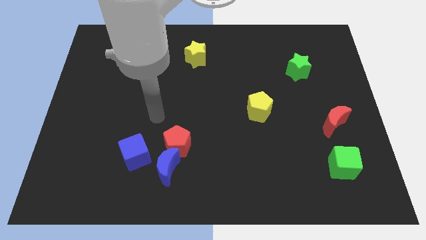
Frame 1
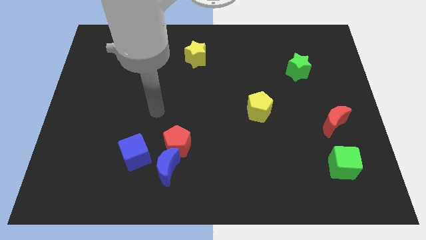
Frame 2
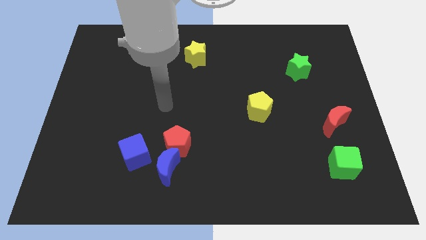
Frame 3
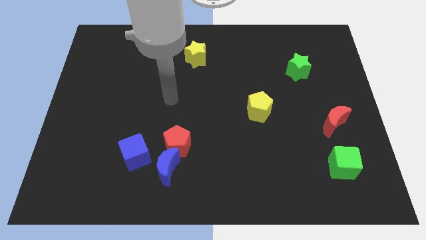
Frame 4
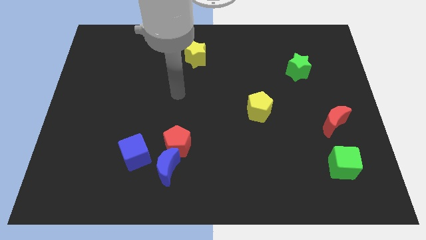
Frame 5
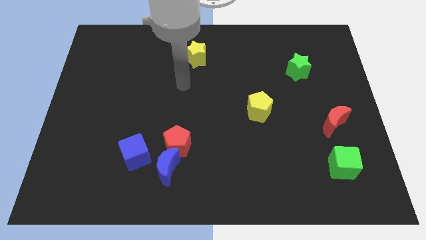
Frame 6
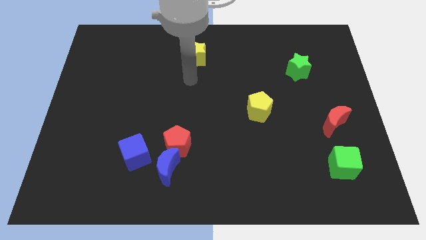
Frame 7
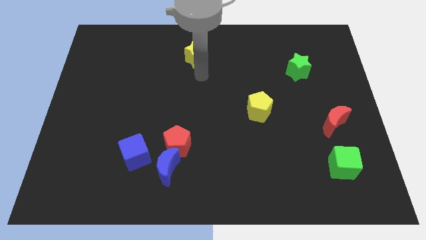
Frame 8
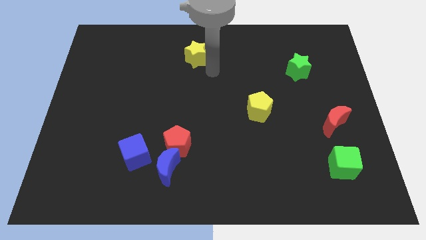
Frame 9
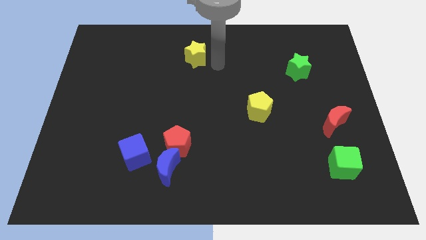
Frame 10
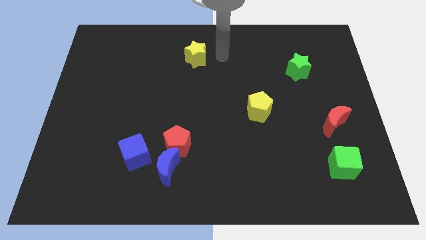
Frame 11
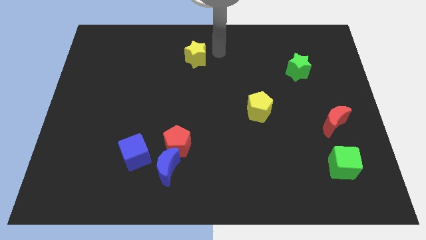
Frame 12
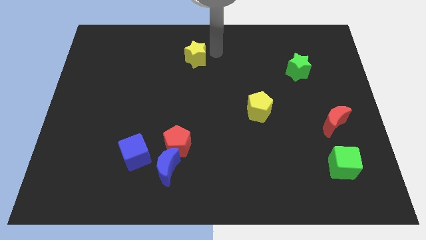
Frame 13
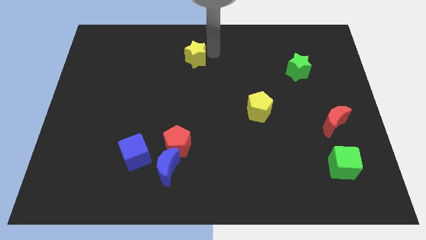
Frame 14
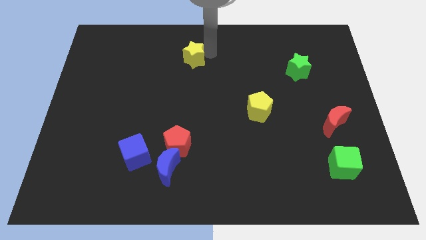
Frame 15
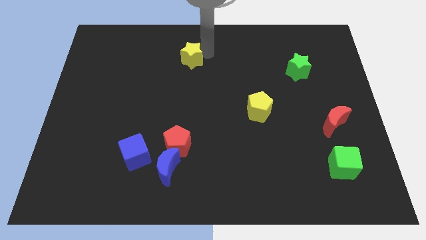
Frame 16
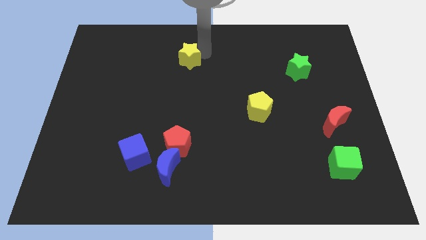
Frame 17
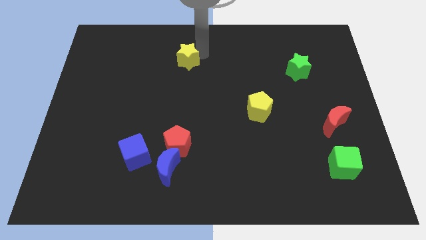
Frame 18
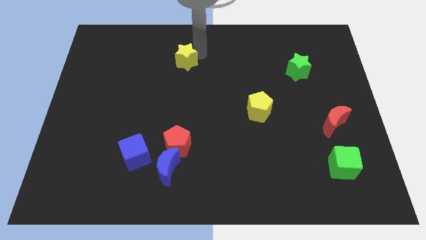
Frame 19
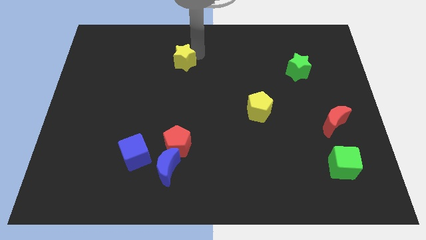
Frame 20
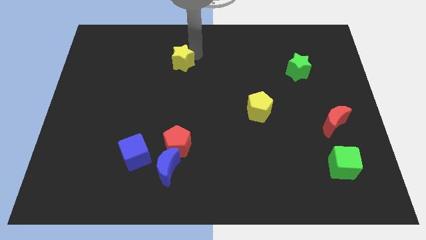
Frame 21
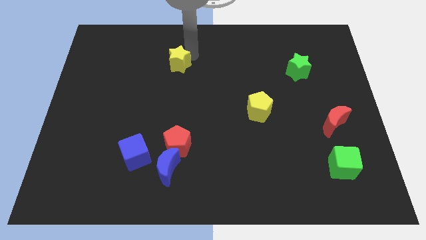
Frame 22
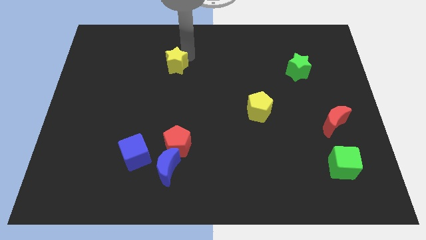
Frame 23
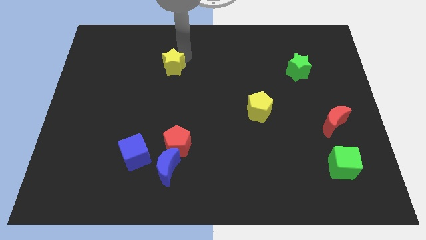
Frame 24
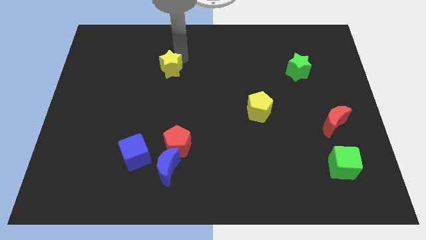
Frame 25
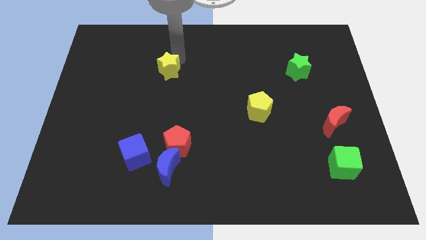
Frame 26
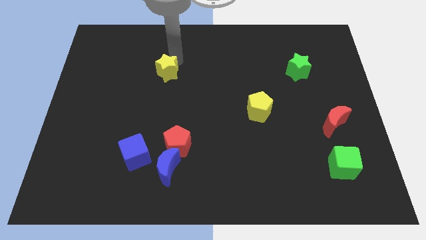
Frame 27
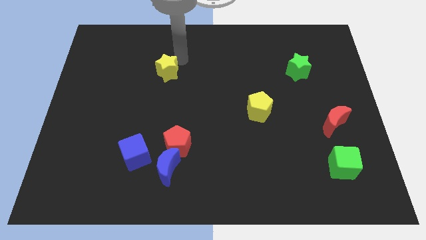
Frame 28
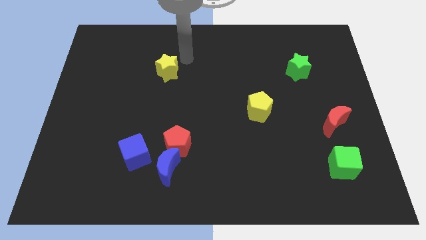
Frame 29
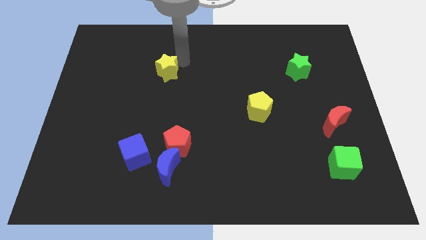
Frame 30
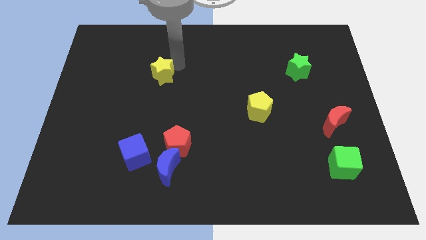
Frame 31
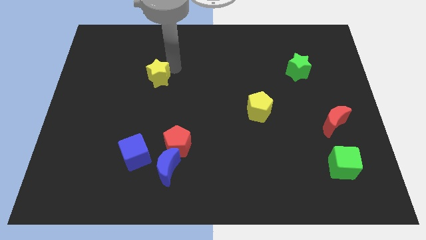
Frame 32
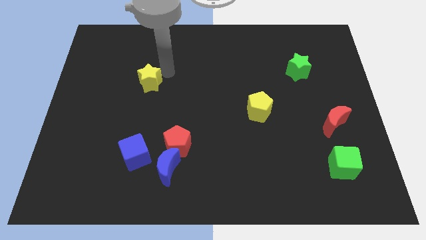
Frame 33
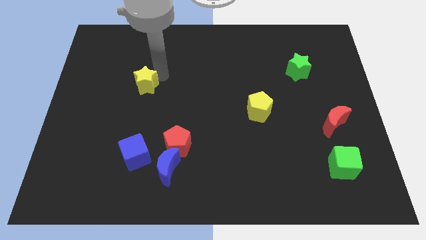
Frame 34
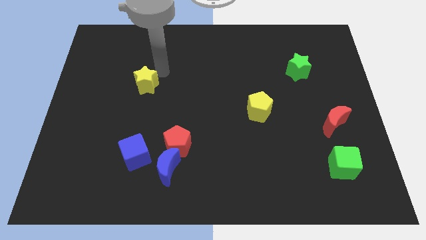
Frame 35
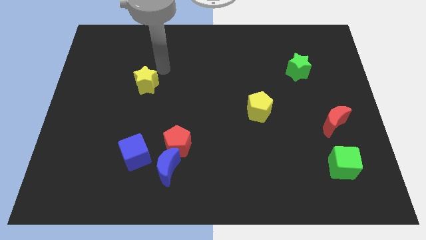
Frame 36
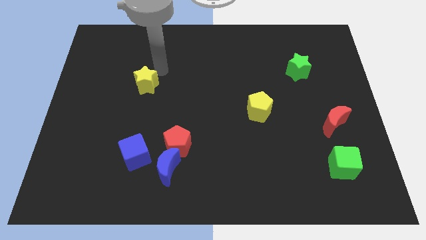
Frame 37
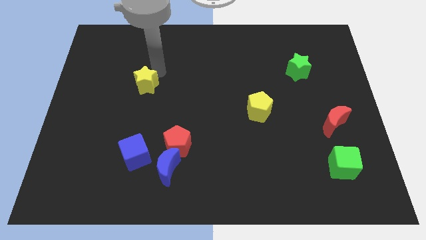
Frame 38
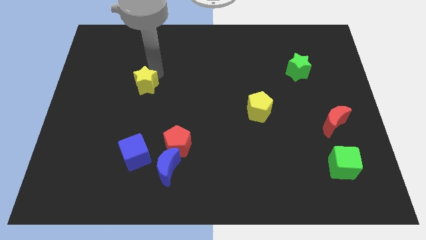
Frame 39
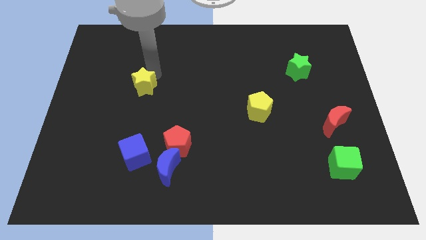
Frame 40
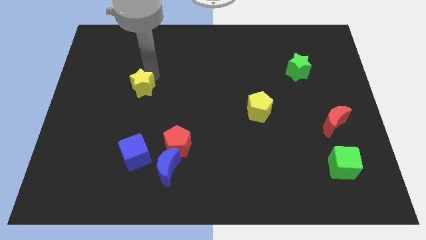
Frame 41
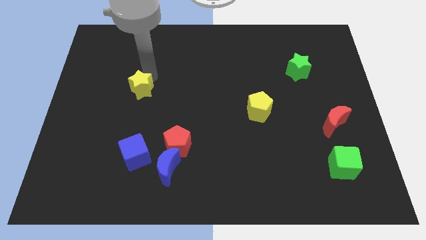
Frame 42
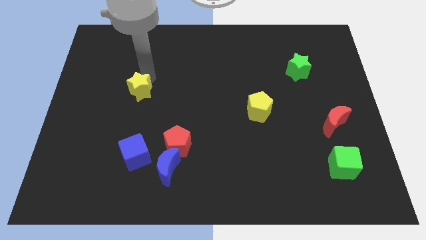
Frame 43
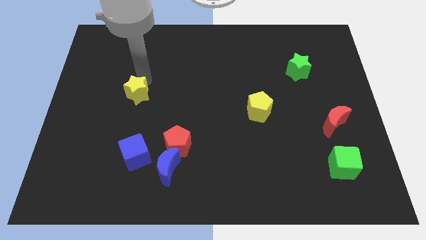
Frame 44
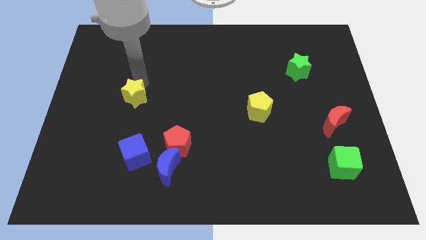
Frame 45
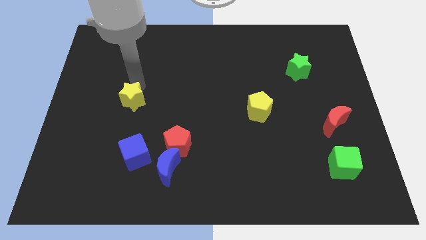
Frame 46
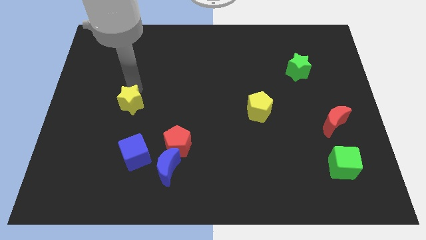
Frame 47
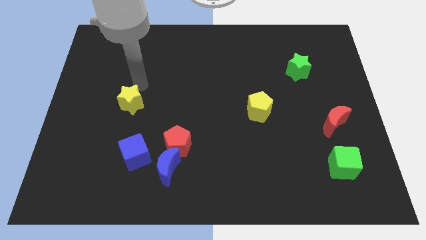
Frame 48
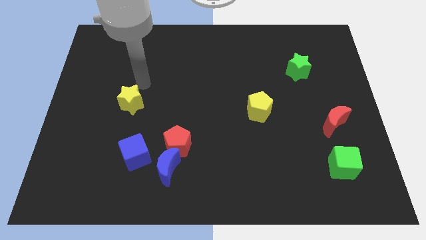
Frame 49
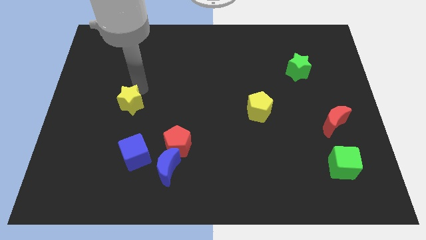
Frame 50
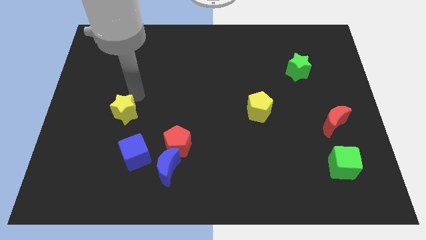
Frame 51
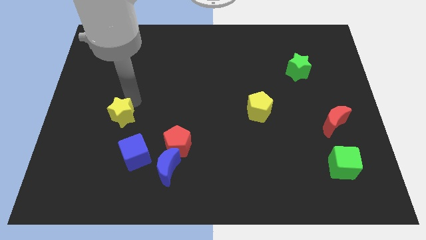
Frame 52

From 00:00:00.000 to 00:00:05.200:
move the yellow star diagonally up and to the left of the blue cube

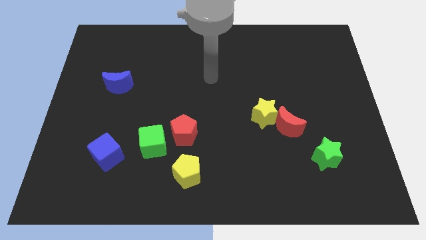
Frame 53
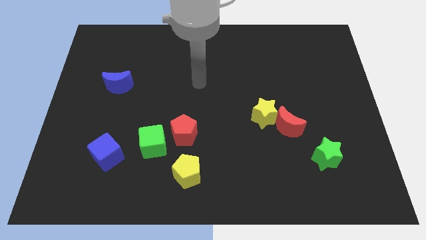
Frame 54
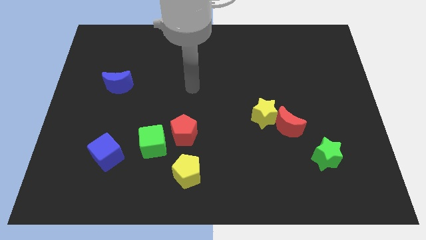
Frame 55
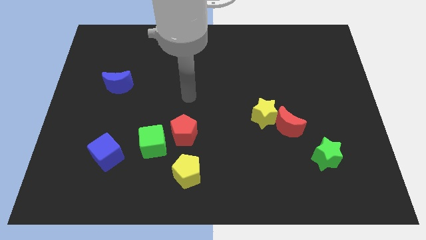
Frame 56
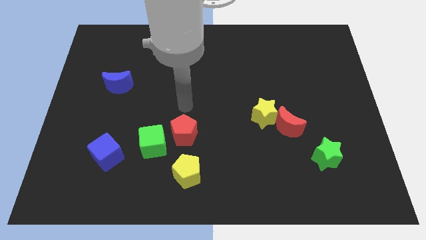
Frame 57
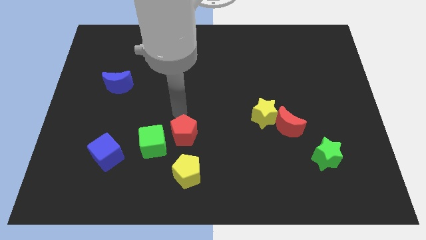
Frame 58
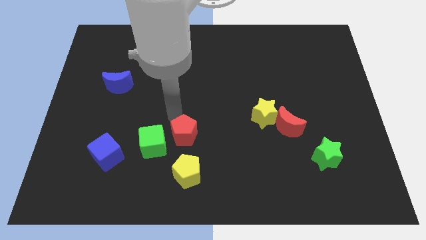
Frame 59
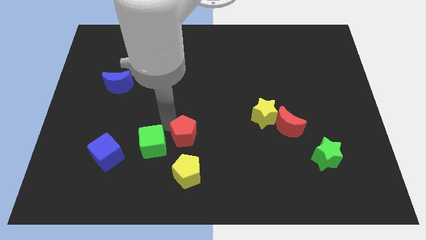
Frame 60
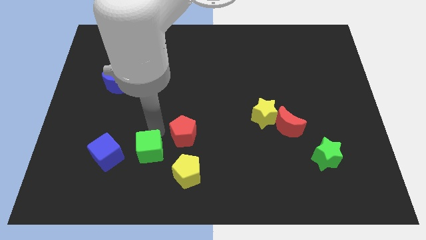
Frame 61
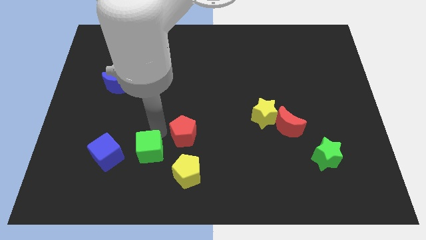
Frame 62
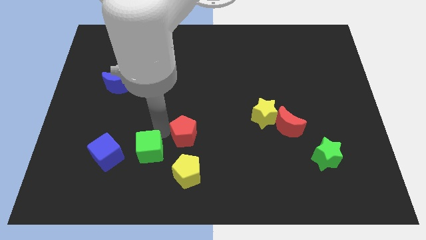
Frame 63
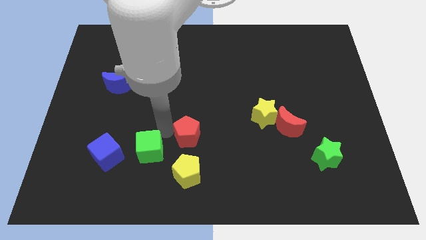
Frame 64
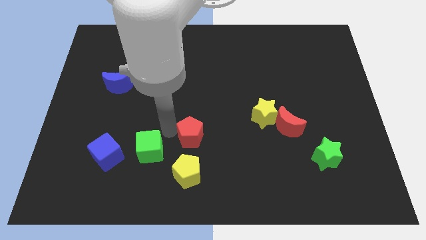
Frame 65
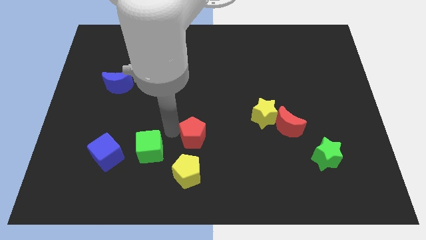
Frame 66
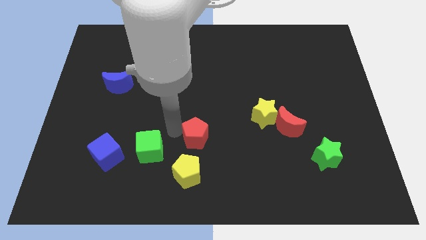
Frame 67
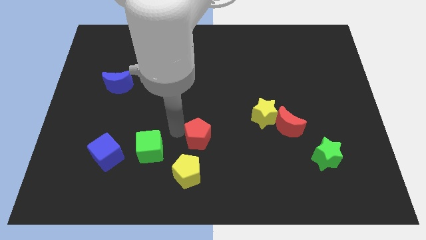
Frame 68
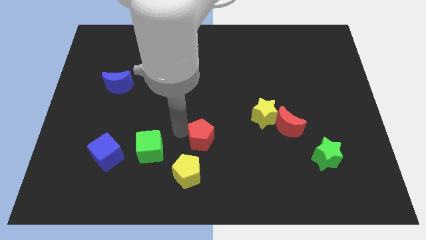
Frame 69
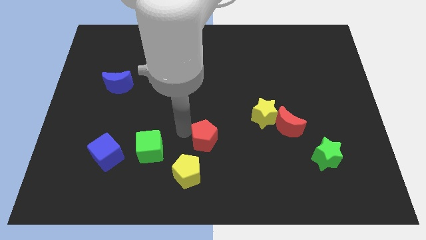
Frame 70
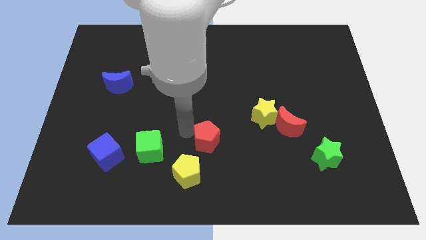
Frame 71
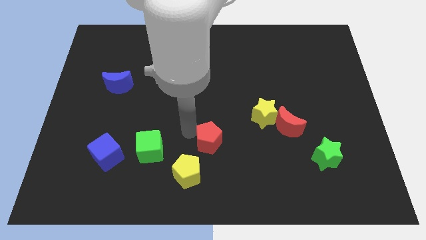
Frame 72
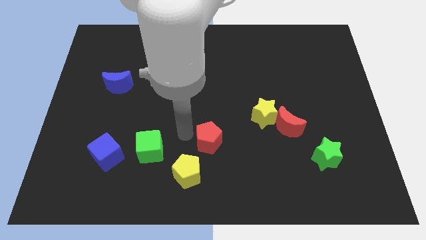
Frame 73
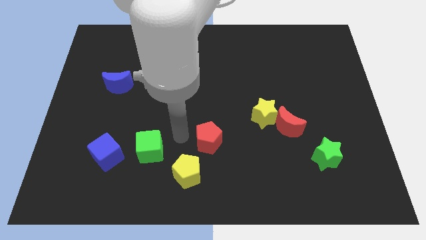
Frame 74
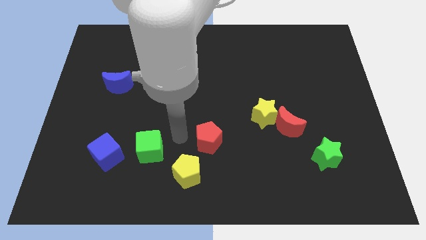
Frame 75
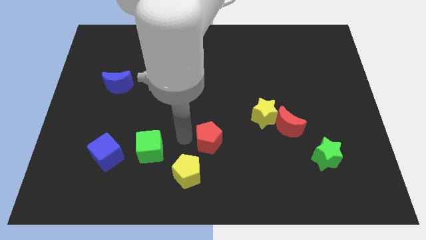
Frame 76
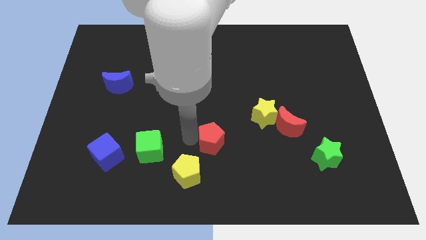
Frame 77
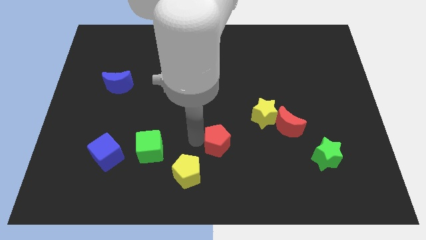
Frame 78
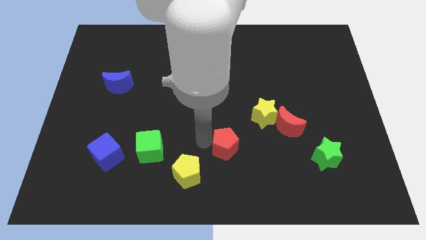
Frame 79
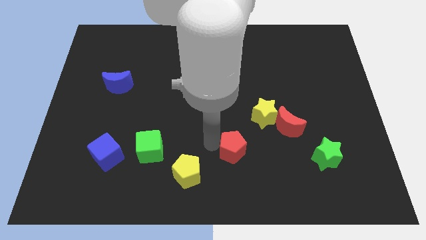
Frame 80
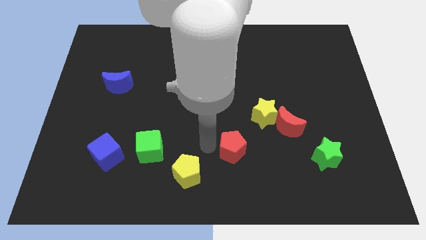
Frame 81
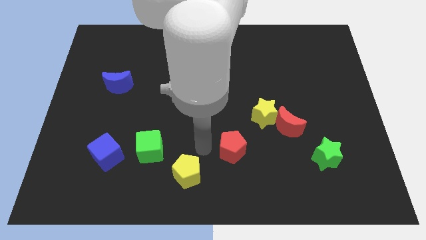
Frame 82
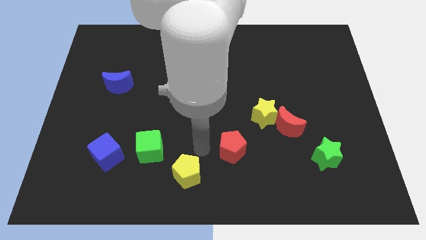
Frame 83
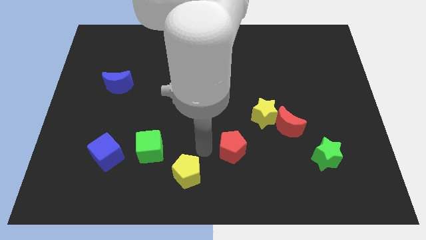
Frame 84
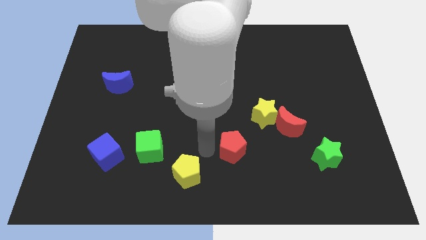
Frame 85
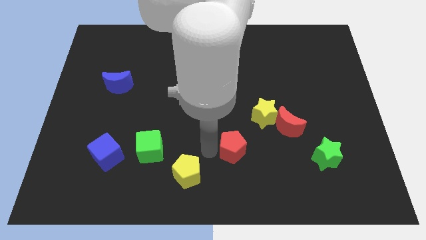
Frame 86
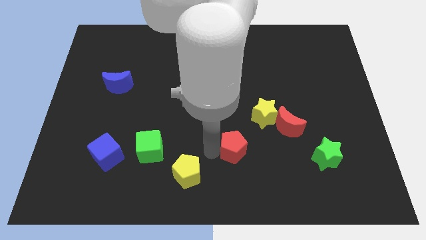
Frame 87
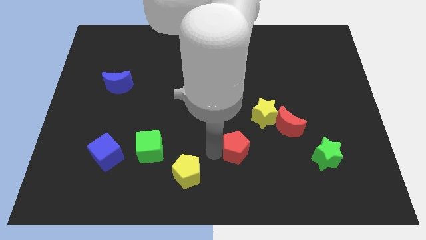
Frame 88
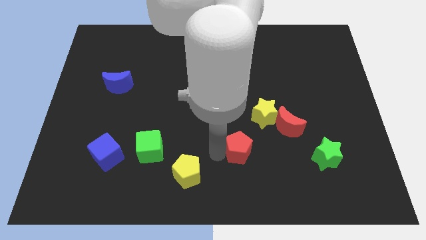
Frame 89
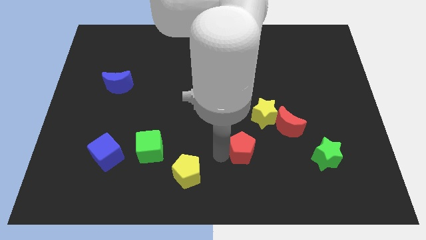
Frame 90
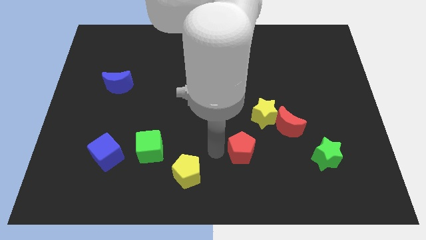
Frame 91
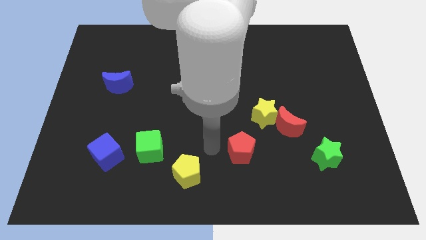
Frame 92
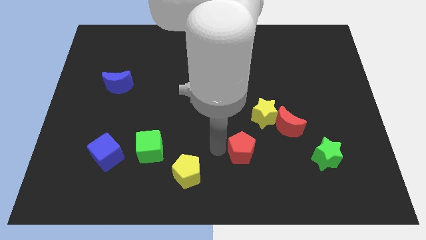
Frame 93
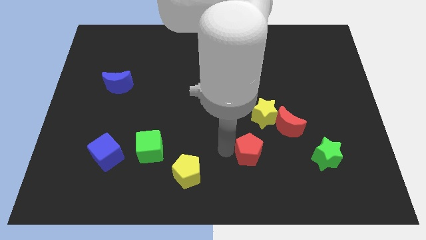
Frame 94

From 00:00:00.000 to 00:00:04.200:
slide the red pentagon to the bottom of the yellow star
